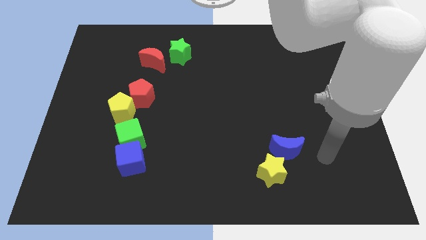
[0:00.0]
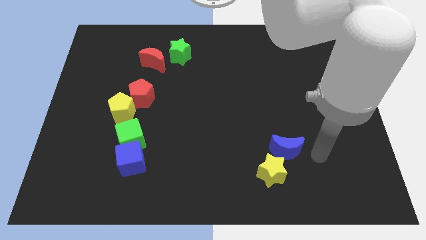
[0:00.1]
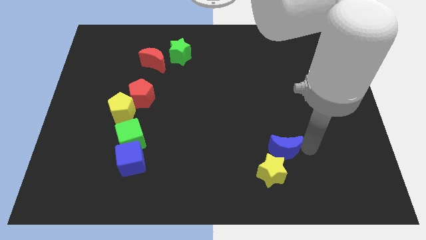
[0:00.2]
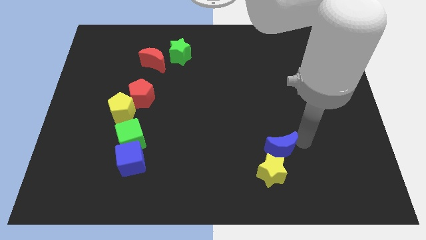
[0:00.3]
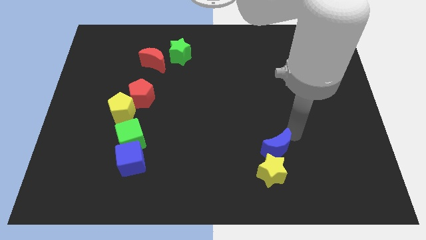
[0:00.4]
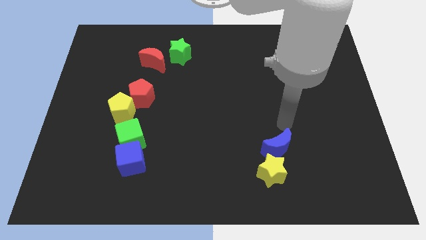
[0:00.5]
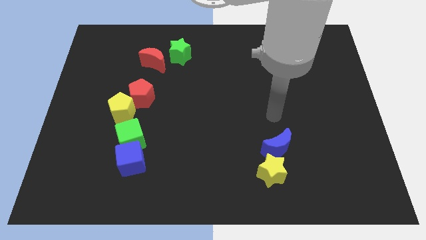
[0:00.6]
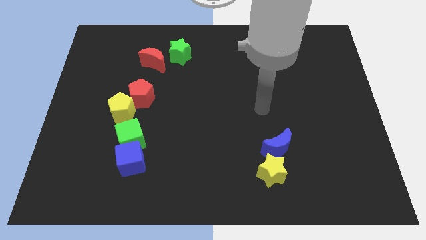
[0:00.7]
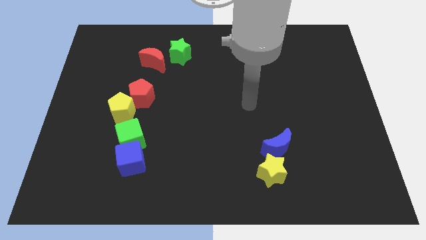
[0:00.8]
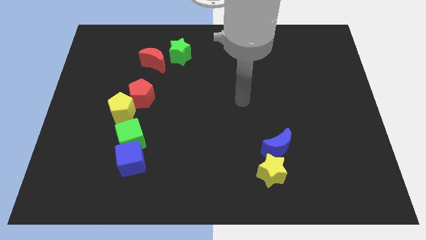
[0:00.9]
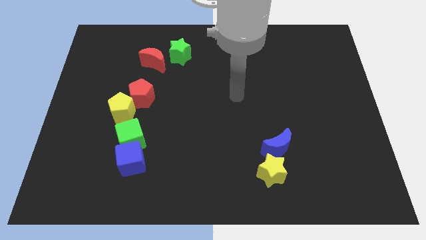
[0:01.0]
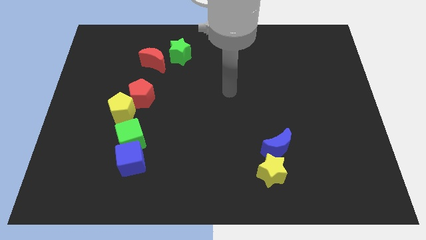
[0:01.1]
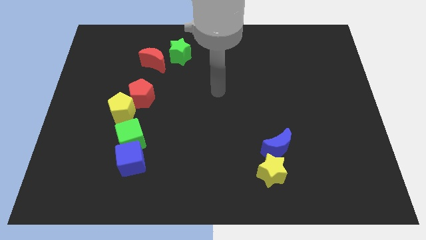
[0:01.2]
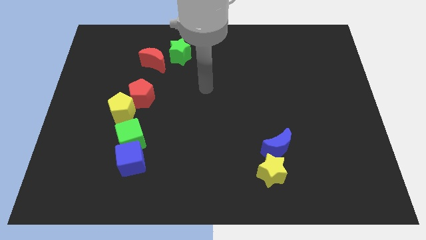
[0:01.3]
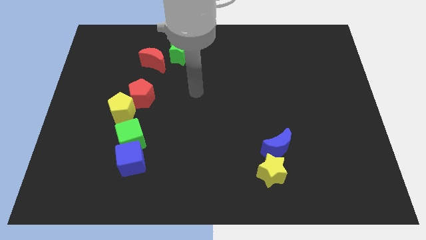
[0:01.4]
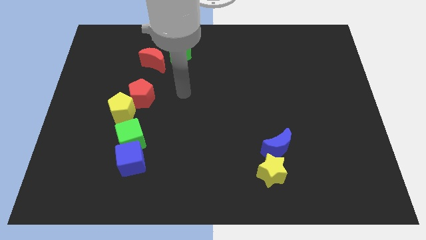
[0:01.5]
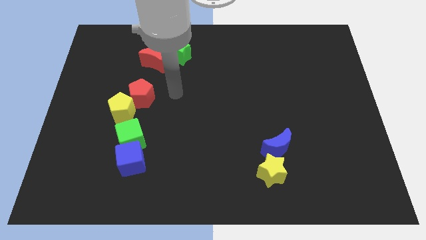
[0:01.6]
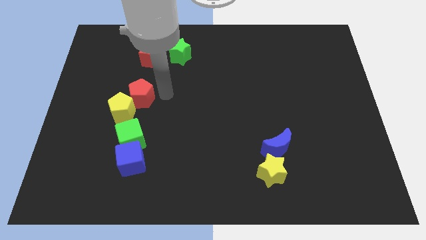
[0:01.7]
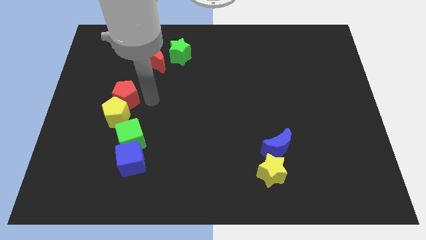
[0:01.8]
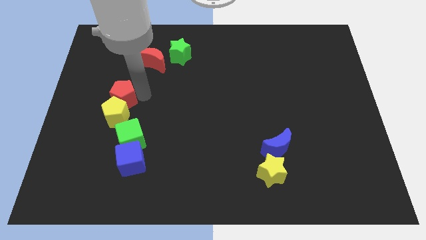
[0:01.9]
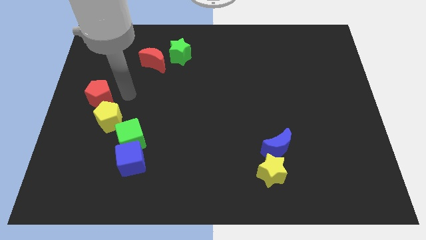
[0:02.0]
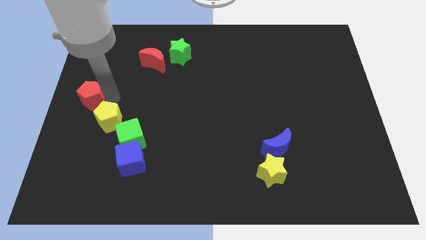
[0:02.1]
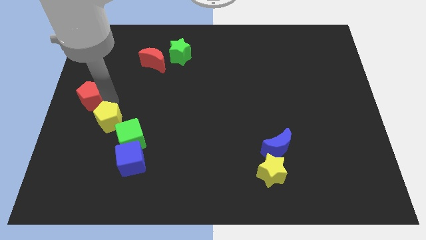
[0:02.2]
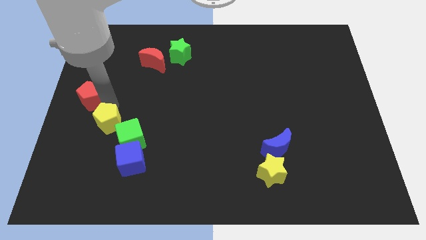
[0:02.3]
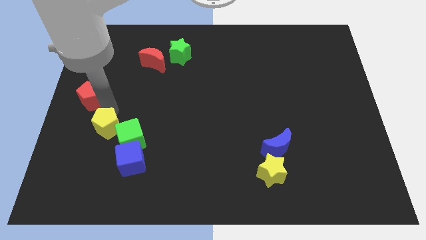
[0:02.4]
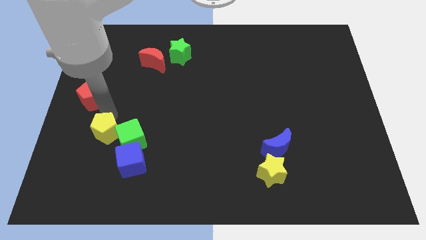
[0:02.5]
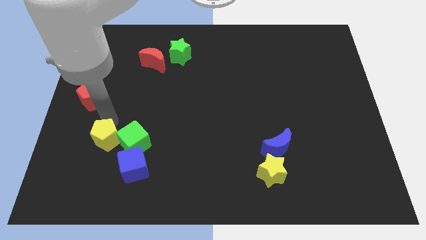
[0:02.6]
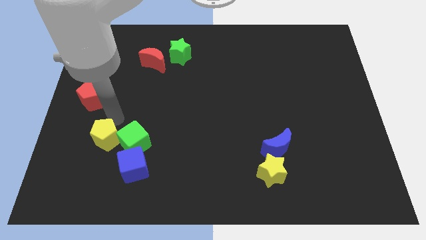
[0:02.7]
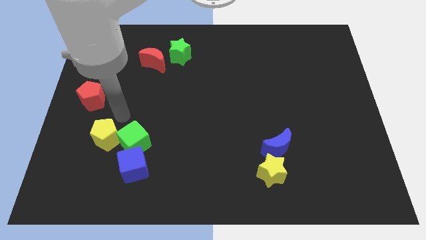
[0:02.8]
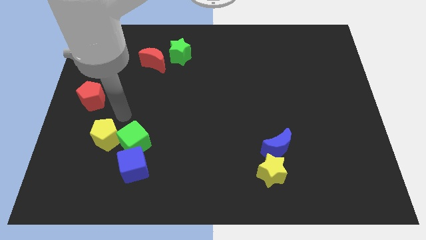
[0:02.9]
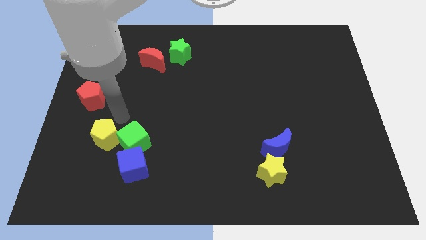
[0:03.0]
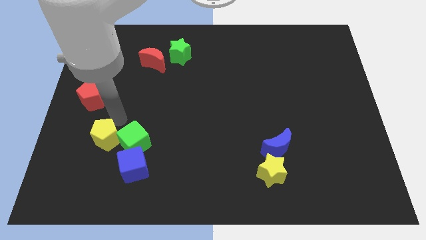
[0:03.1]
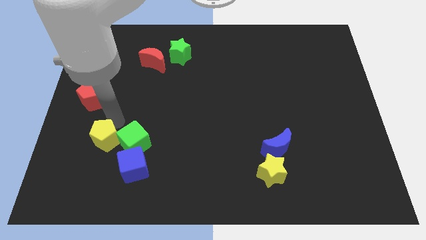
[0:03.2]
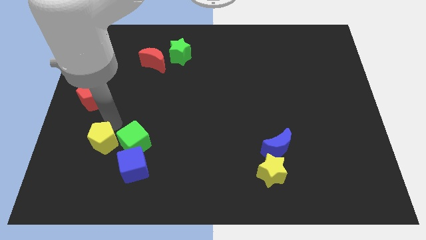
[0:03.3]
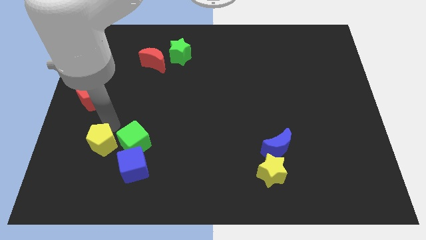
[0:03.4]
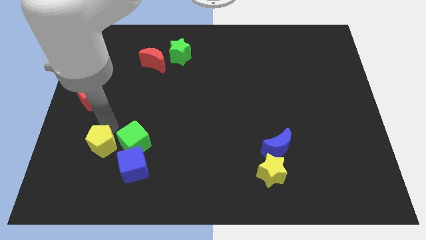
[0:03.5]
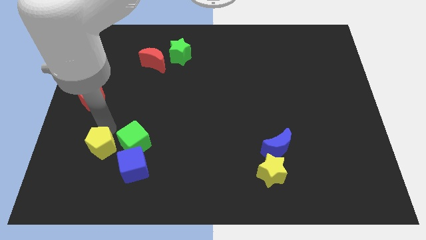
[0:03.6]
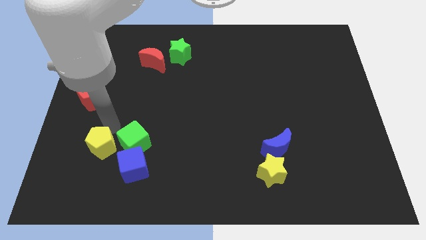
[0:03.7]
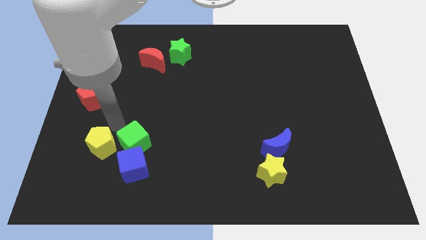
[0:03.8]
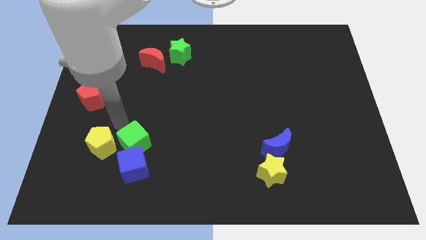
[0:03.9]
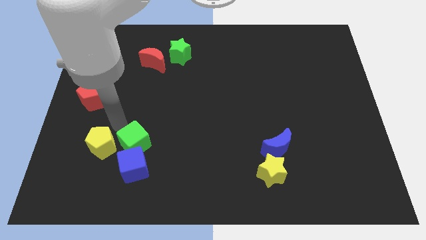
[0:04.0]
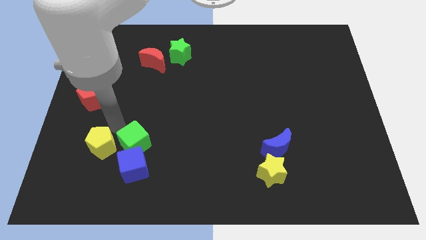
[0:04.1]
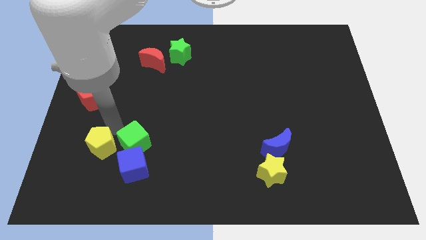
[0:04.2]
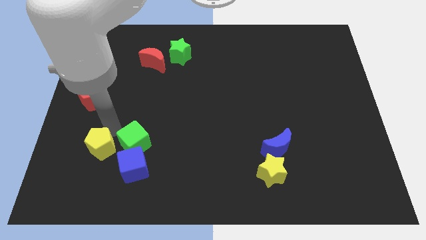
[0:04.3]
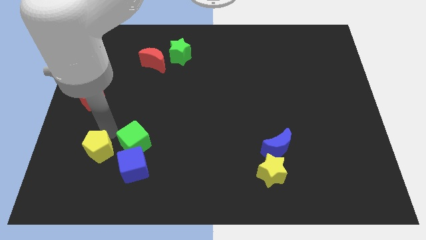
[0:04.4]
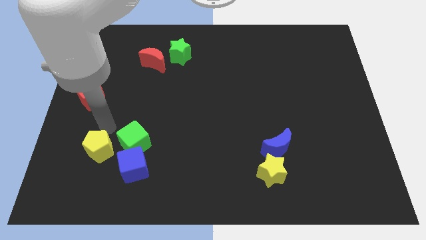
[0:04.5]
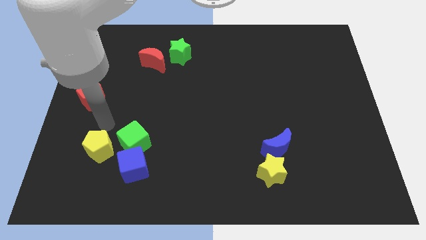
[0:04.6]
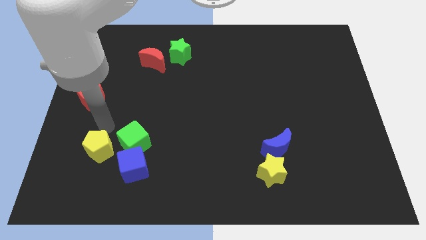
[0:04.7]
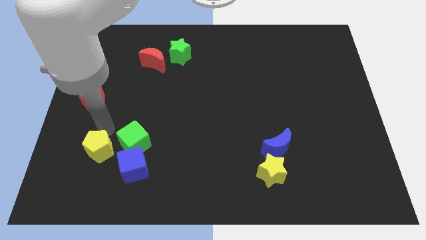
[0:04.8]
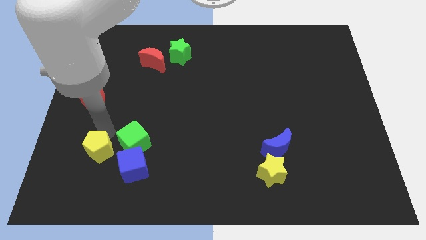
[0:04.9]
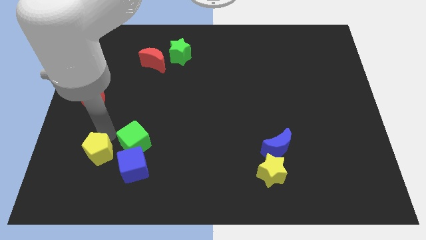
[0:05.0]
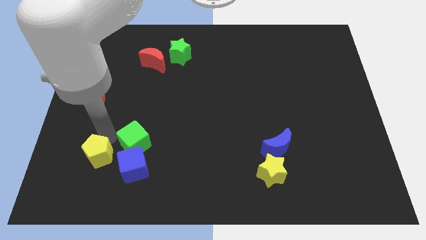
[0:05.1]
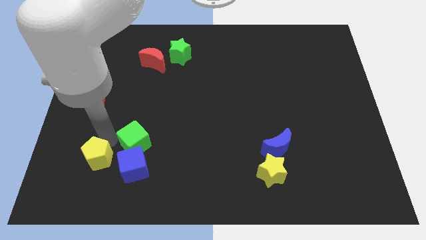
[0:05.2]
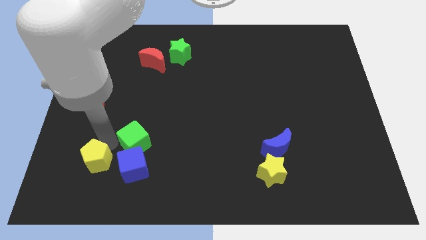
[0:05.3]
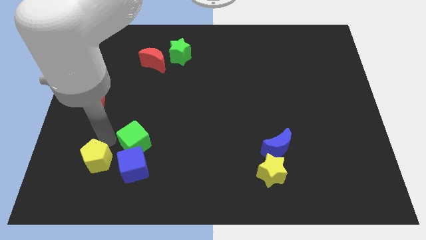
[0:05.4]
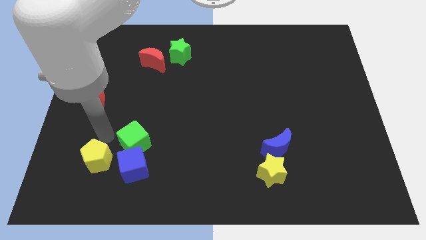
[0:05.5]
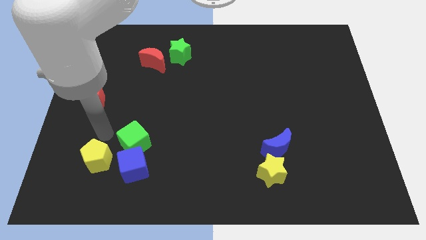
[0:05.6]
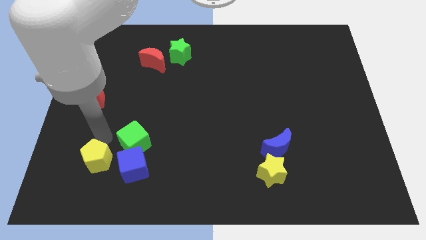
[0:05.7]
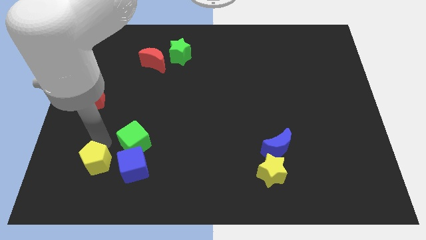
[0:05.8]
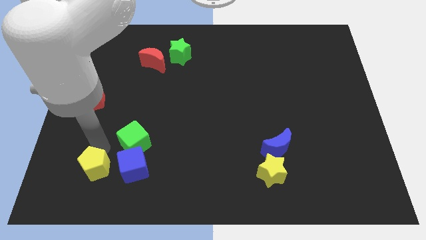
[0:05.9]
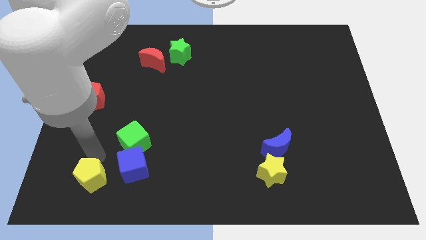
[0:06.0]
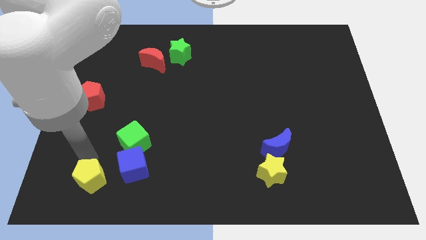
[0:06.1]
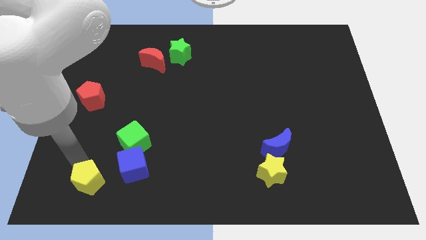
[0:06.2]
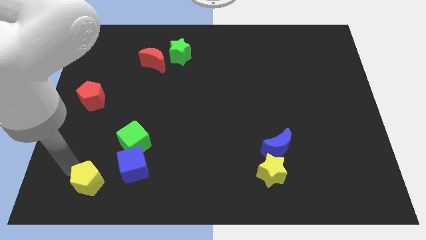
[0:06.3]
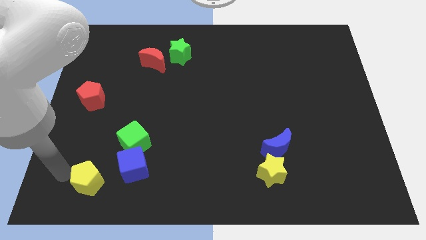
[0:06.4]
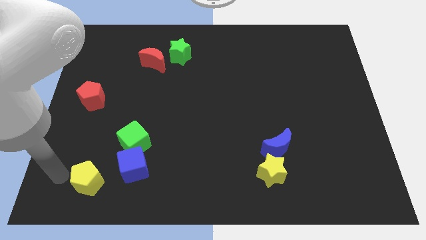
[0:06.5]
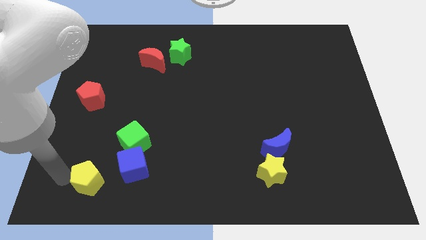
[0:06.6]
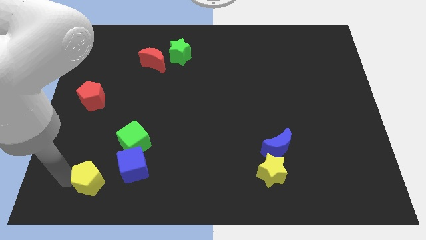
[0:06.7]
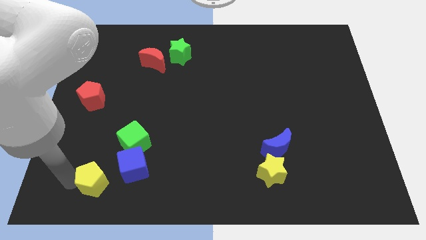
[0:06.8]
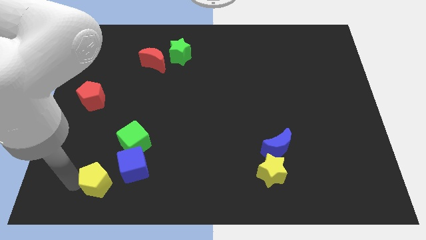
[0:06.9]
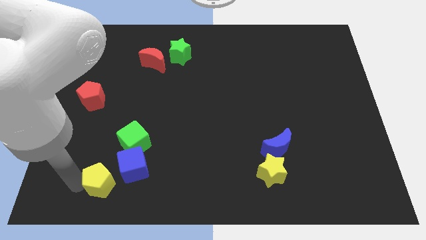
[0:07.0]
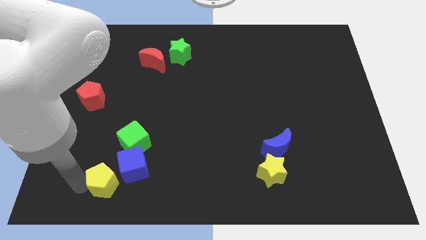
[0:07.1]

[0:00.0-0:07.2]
push the yellow pentagon to the bottom side of the green cube
